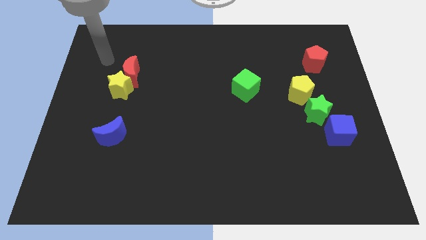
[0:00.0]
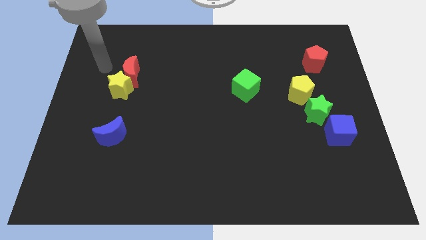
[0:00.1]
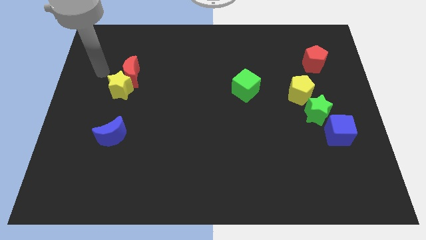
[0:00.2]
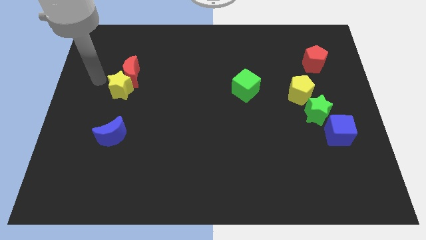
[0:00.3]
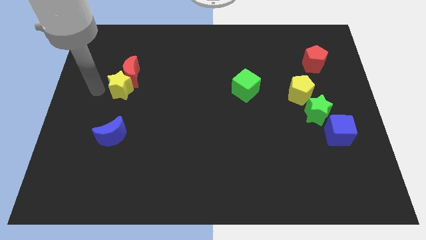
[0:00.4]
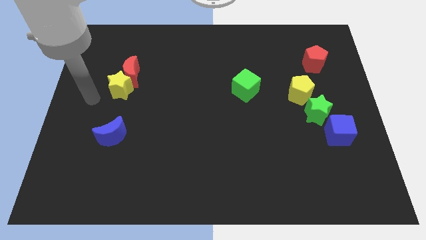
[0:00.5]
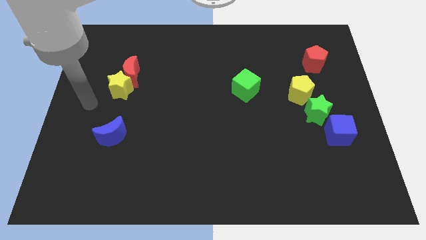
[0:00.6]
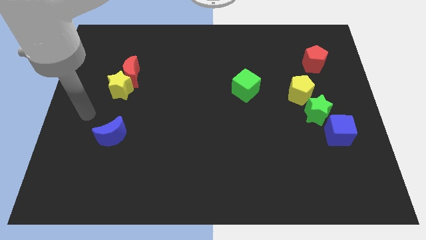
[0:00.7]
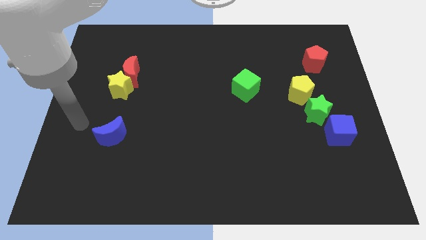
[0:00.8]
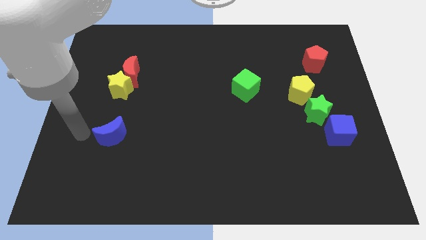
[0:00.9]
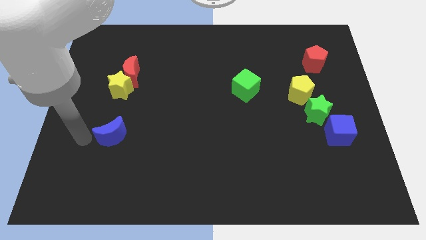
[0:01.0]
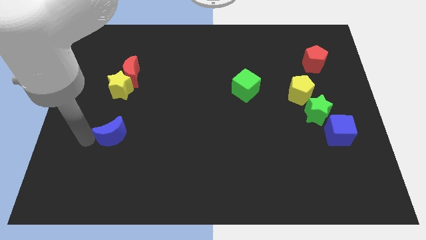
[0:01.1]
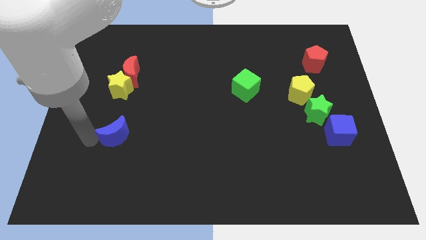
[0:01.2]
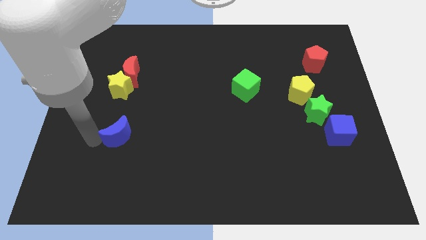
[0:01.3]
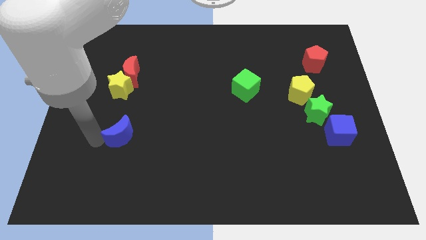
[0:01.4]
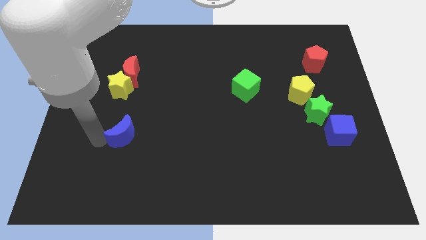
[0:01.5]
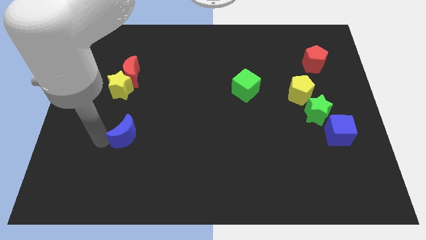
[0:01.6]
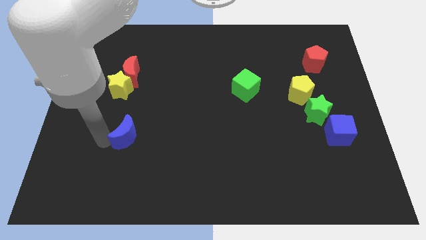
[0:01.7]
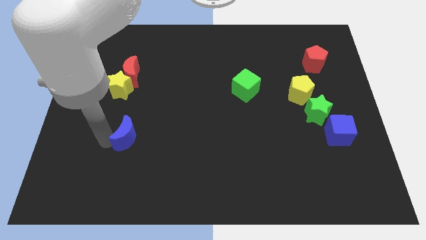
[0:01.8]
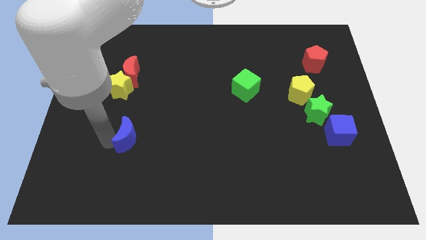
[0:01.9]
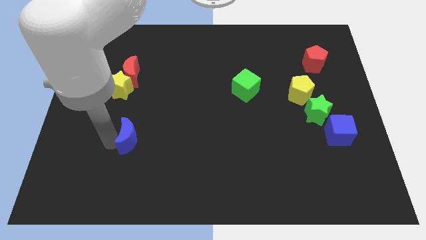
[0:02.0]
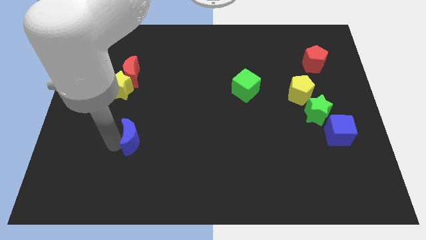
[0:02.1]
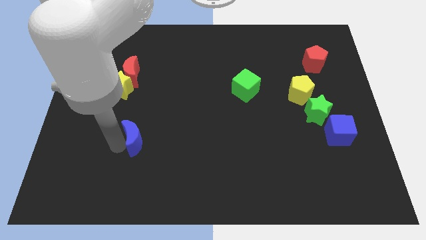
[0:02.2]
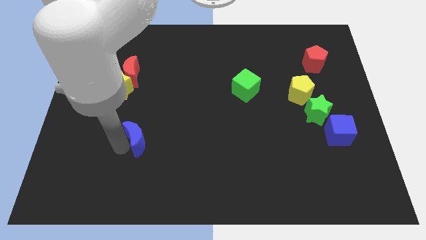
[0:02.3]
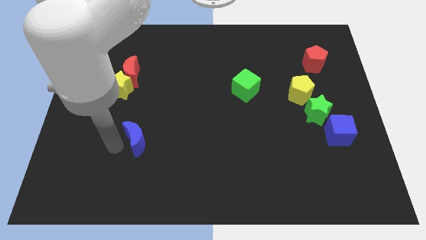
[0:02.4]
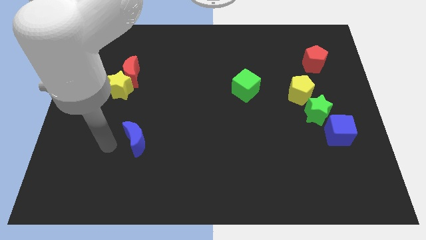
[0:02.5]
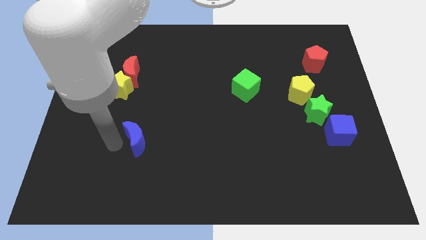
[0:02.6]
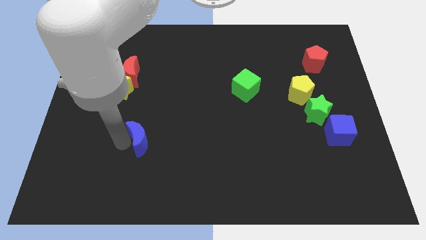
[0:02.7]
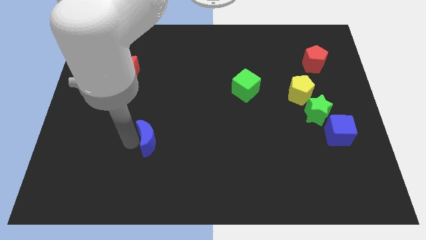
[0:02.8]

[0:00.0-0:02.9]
move the blue moon a little to the right

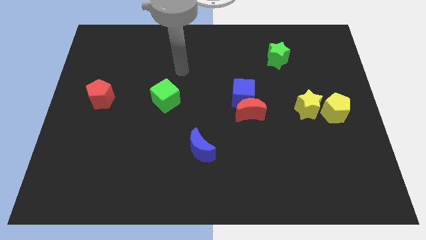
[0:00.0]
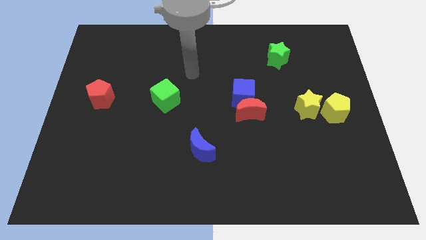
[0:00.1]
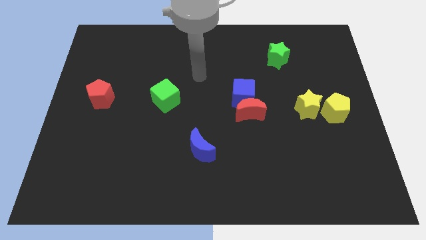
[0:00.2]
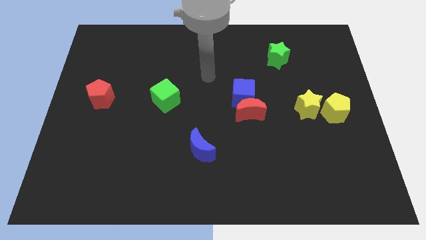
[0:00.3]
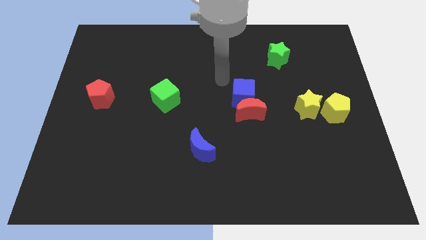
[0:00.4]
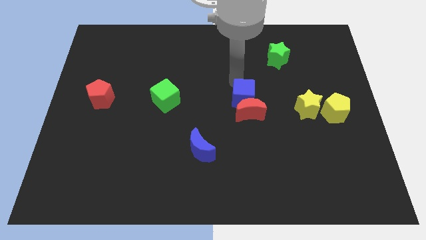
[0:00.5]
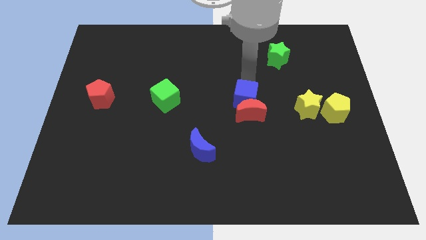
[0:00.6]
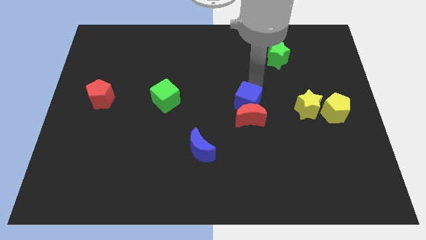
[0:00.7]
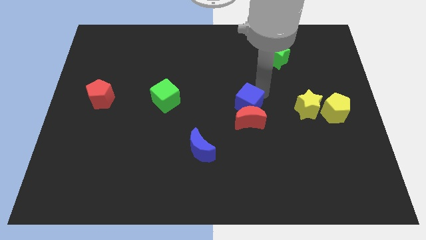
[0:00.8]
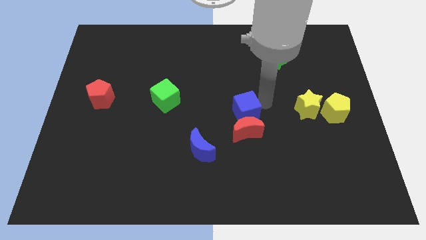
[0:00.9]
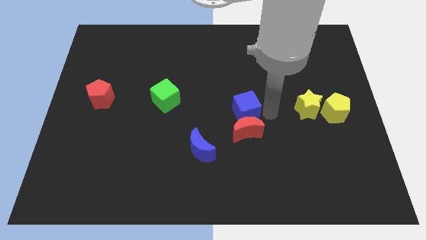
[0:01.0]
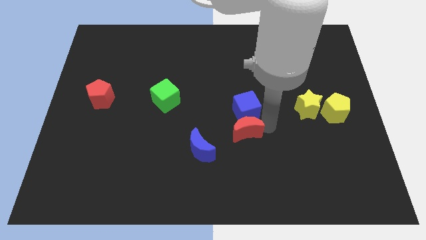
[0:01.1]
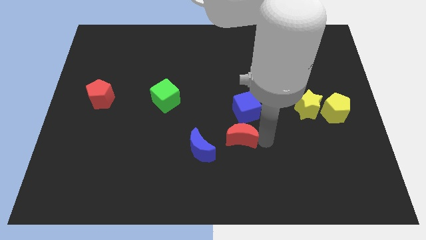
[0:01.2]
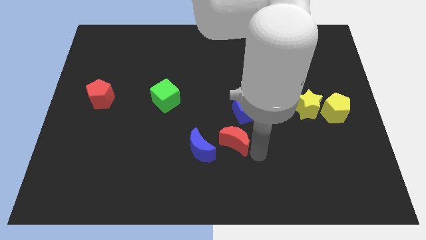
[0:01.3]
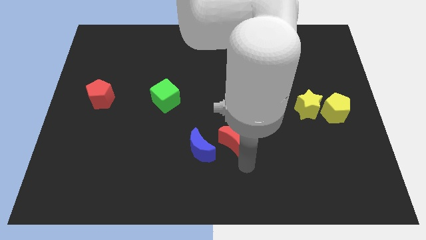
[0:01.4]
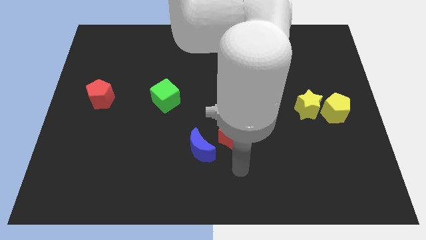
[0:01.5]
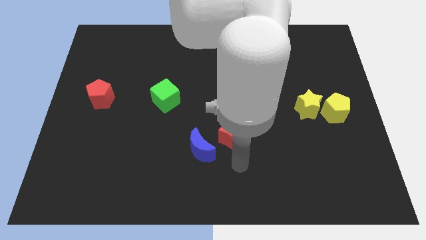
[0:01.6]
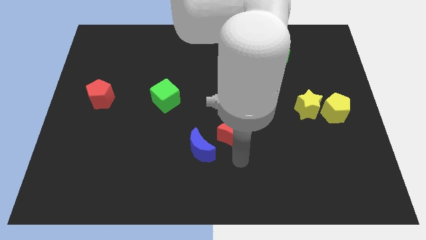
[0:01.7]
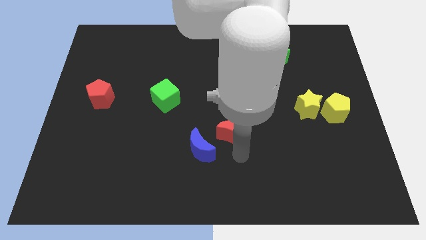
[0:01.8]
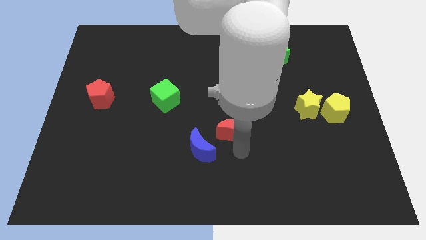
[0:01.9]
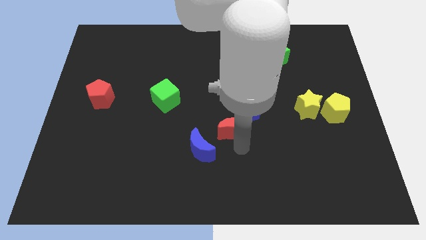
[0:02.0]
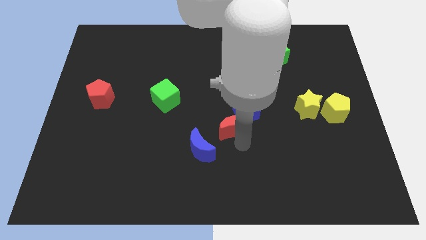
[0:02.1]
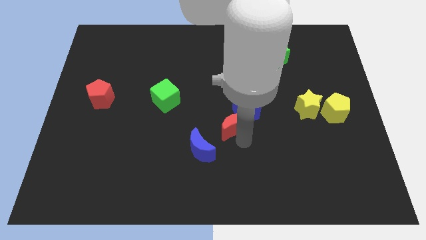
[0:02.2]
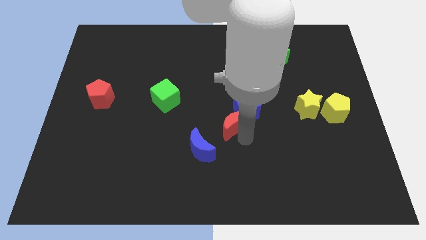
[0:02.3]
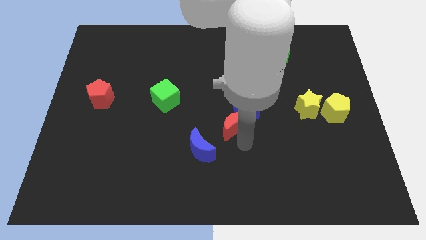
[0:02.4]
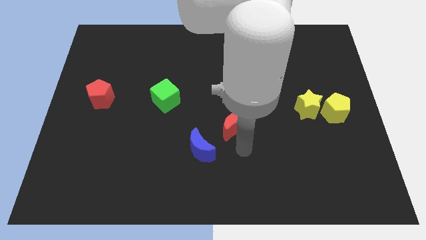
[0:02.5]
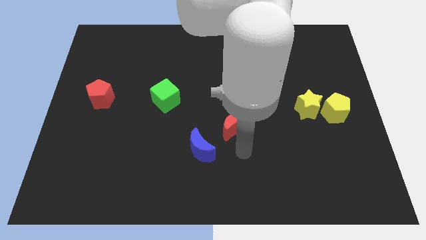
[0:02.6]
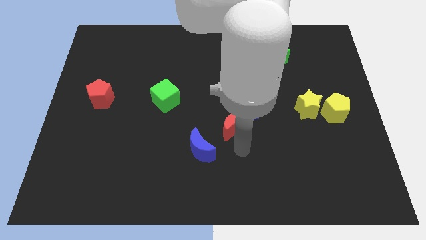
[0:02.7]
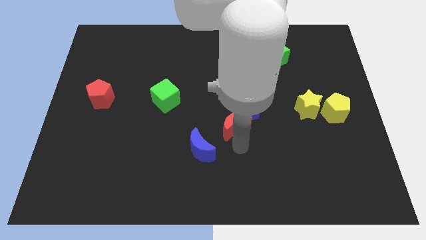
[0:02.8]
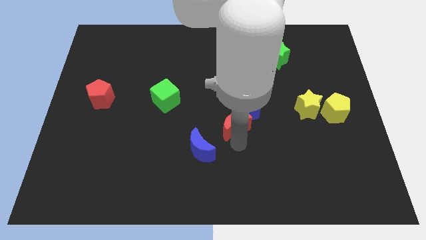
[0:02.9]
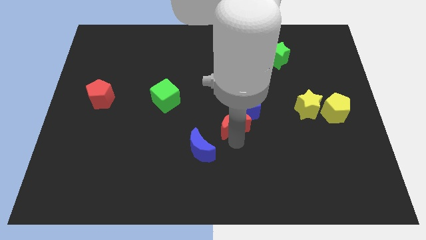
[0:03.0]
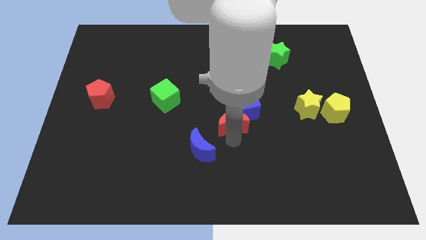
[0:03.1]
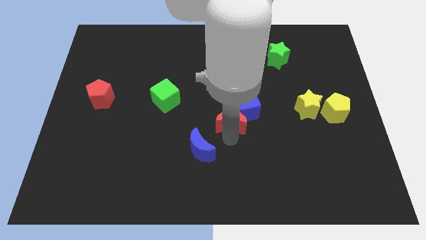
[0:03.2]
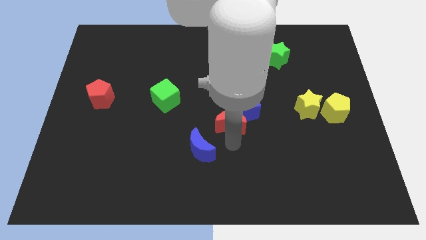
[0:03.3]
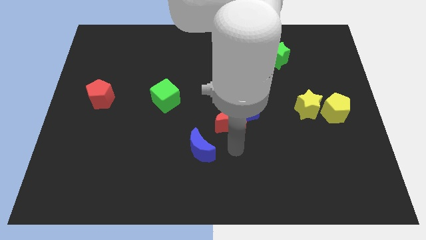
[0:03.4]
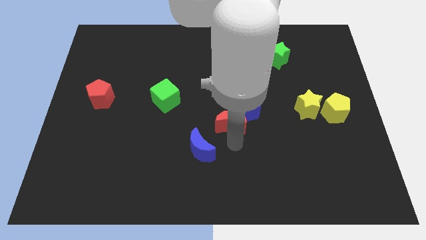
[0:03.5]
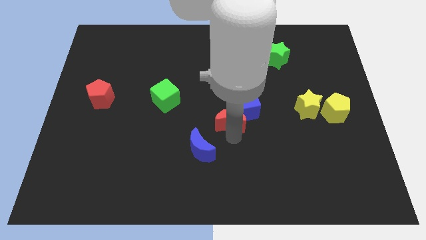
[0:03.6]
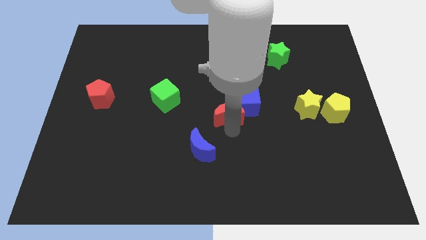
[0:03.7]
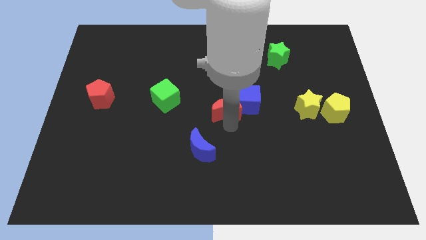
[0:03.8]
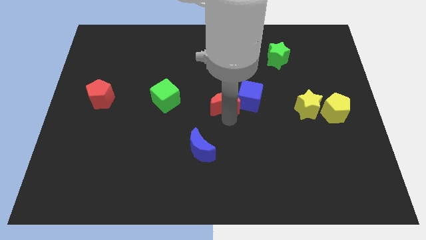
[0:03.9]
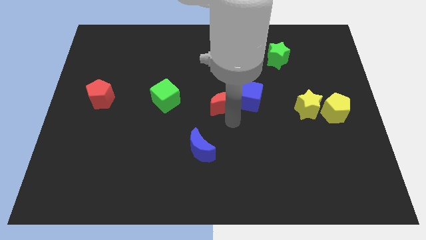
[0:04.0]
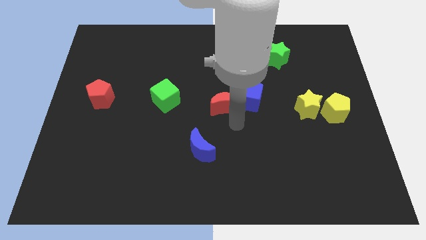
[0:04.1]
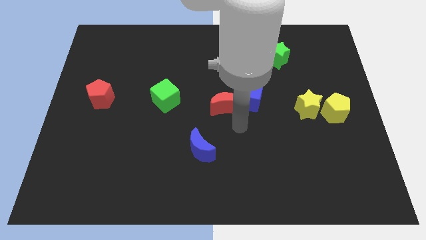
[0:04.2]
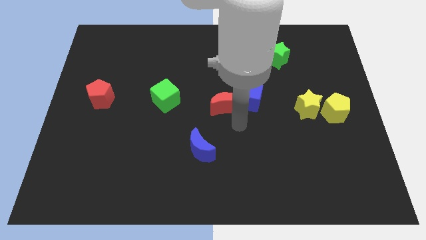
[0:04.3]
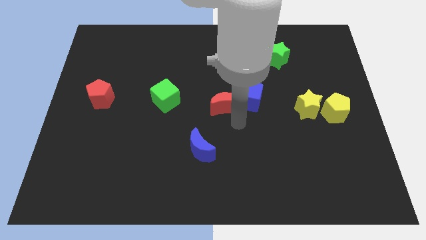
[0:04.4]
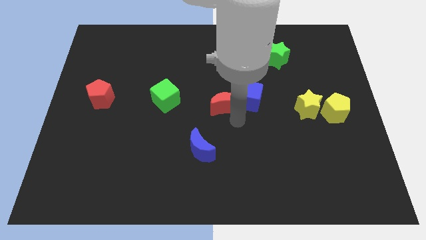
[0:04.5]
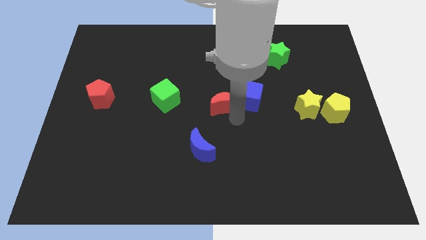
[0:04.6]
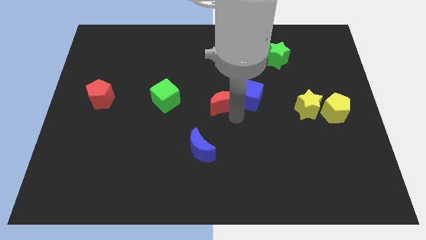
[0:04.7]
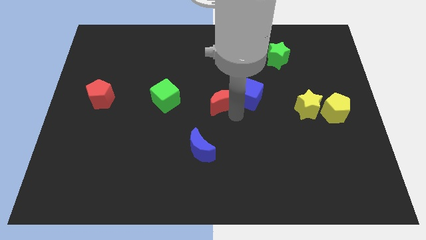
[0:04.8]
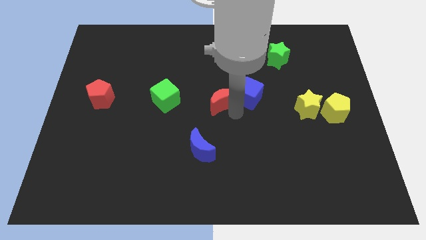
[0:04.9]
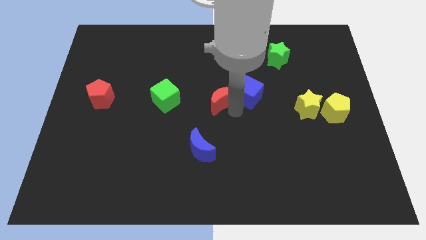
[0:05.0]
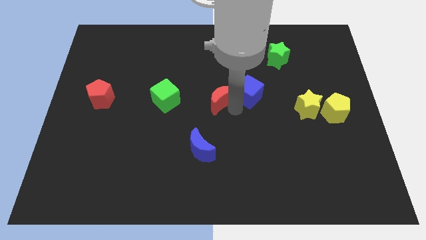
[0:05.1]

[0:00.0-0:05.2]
push the red moon a little up and left
